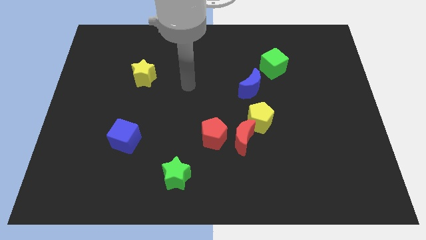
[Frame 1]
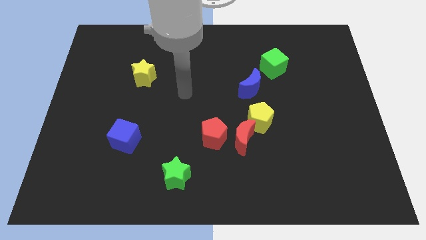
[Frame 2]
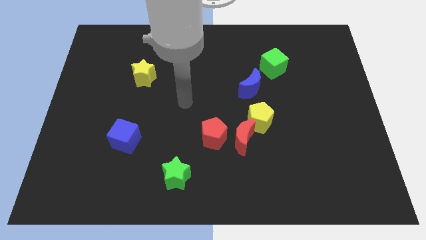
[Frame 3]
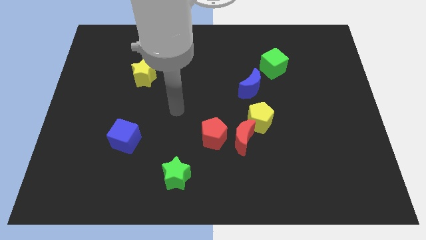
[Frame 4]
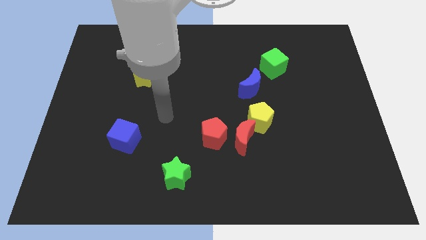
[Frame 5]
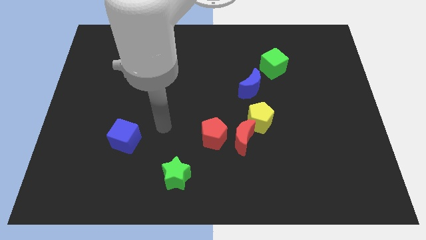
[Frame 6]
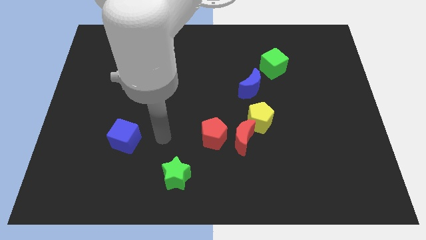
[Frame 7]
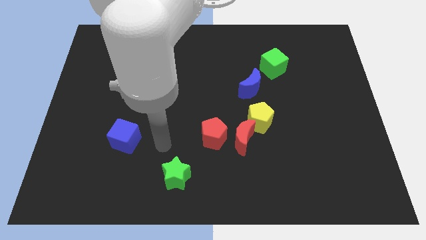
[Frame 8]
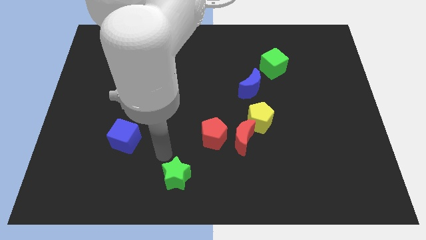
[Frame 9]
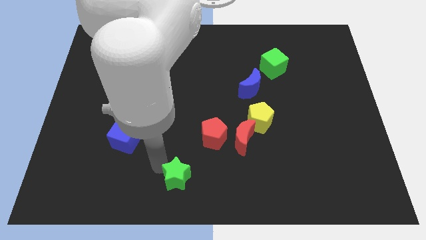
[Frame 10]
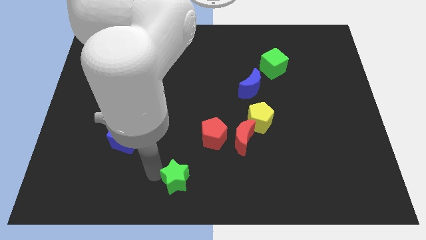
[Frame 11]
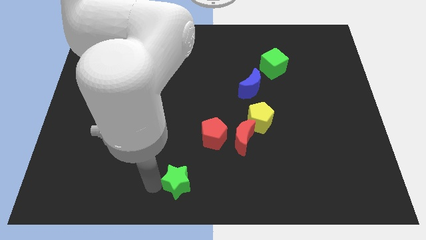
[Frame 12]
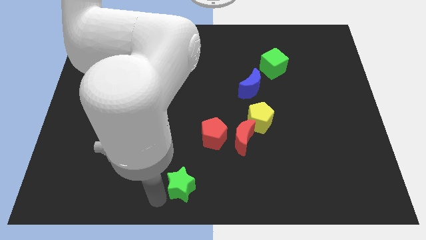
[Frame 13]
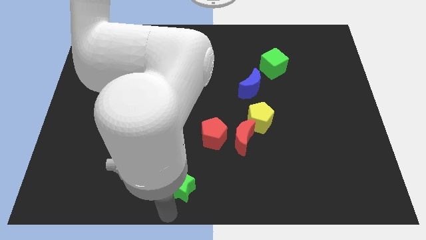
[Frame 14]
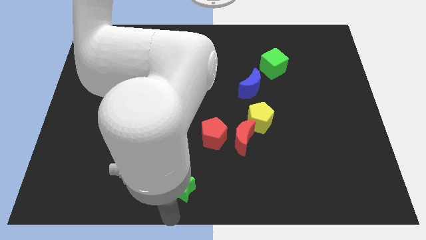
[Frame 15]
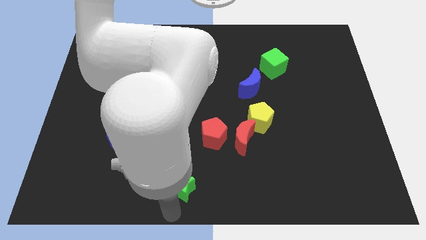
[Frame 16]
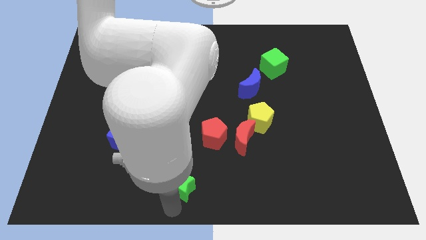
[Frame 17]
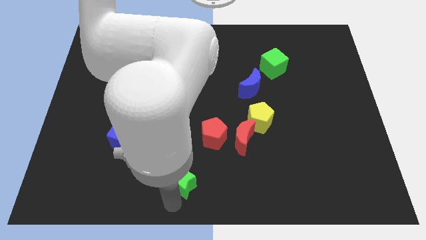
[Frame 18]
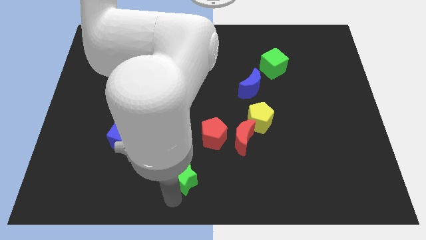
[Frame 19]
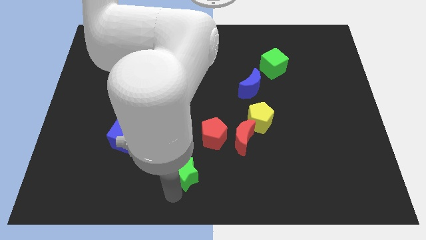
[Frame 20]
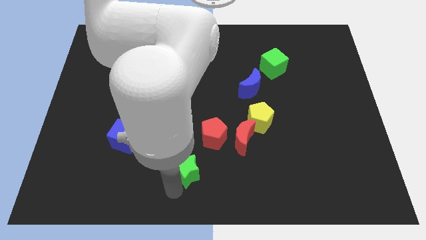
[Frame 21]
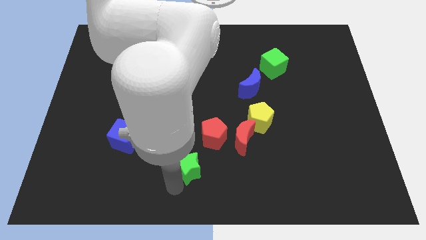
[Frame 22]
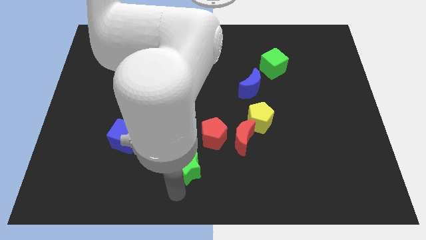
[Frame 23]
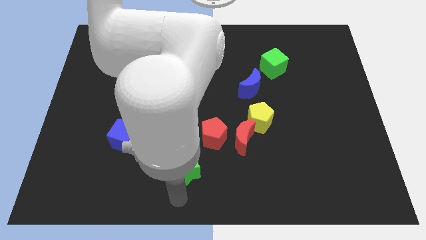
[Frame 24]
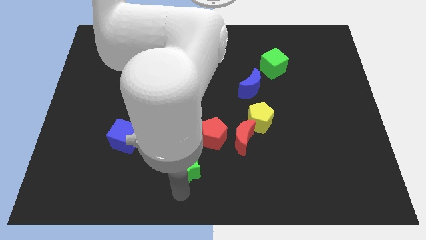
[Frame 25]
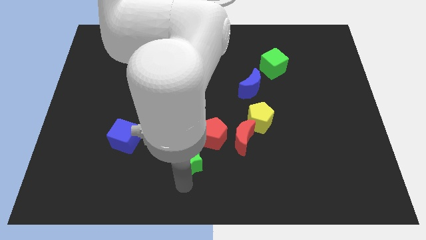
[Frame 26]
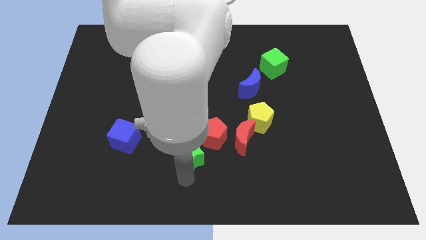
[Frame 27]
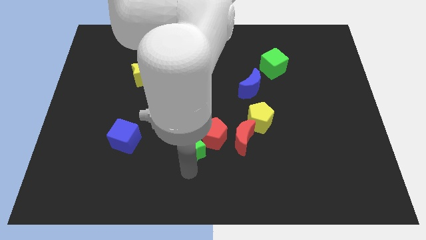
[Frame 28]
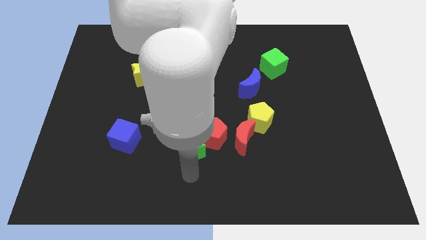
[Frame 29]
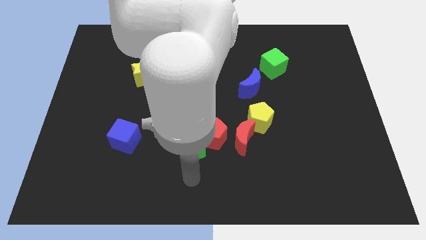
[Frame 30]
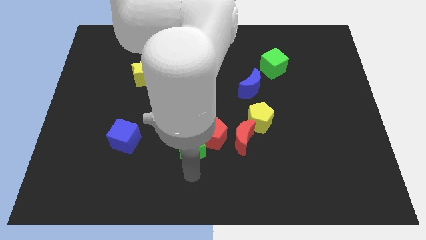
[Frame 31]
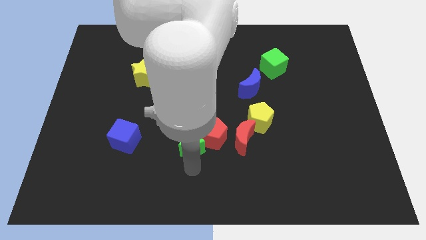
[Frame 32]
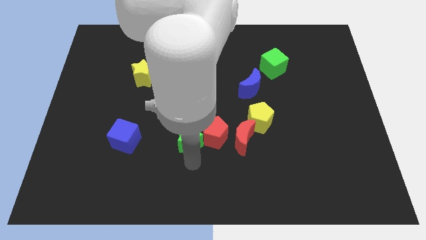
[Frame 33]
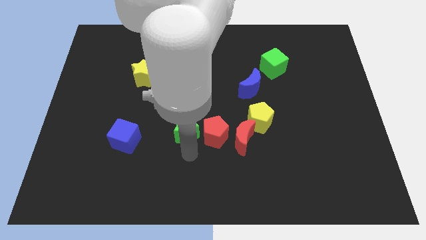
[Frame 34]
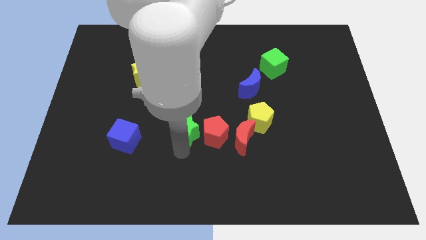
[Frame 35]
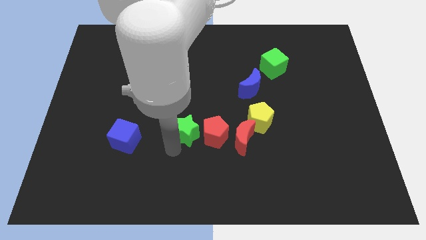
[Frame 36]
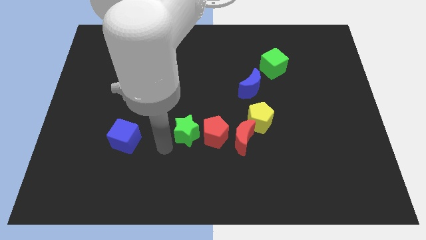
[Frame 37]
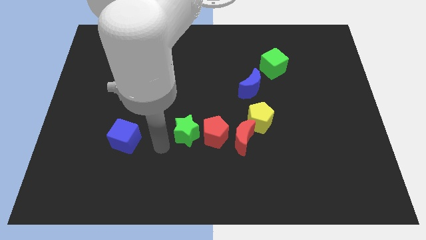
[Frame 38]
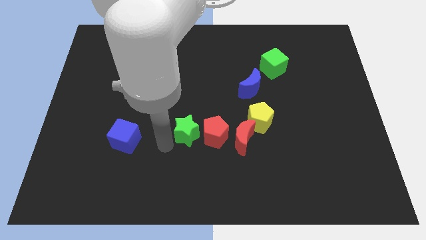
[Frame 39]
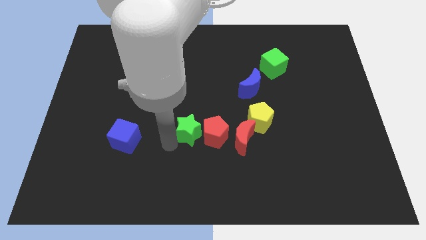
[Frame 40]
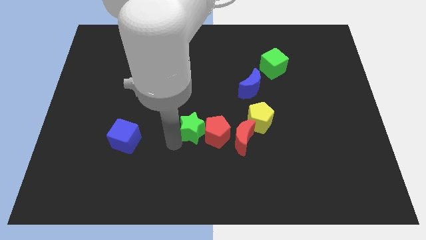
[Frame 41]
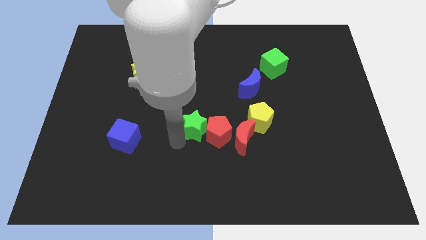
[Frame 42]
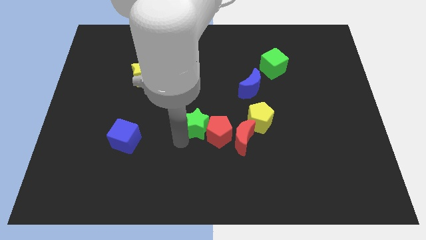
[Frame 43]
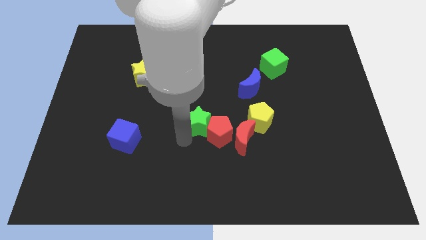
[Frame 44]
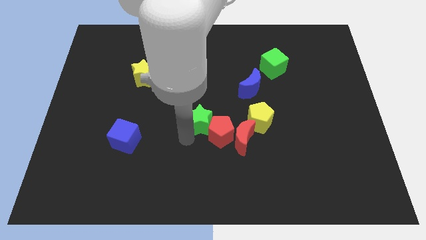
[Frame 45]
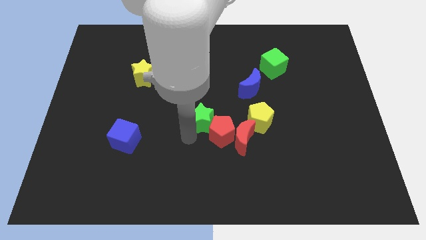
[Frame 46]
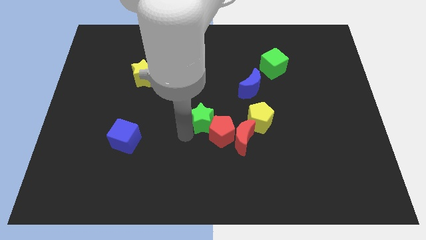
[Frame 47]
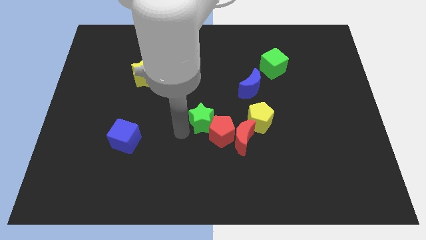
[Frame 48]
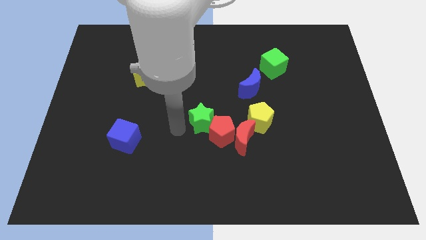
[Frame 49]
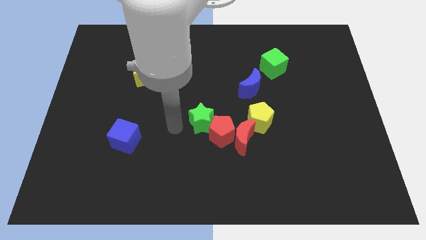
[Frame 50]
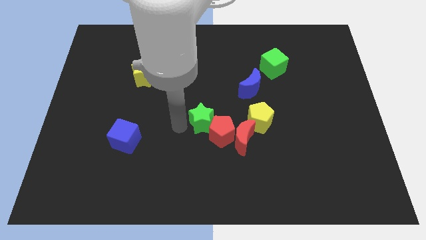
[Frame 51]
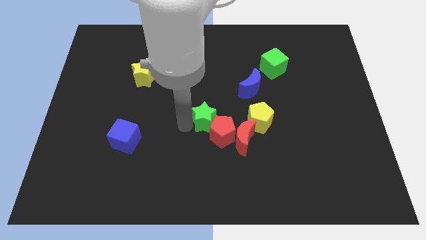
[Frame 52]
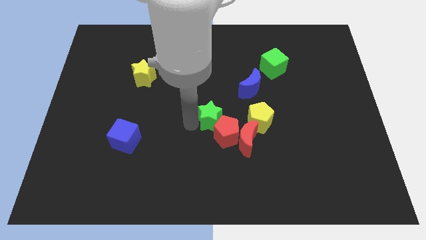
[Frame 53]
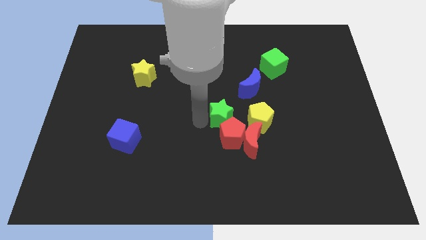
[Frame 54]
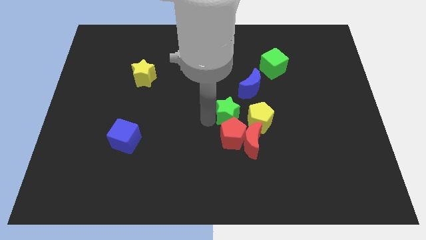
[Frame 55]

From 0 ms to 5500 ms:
push the green star to the top right side of the red pentagon

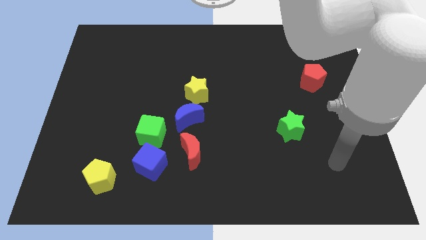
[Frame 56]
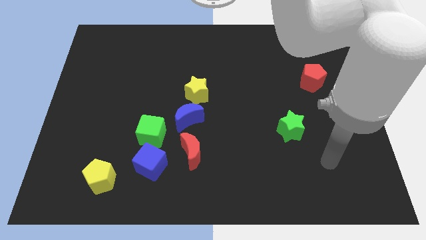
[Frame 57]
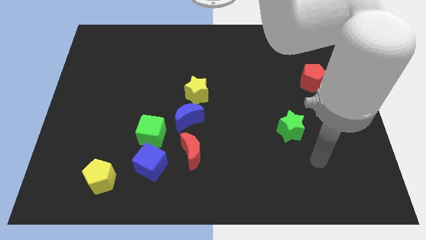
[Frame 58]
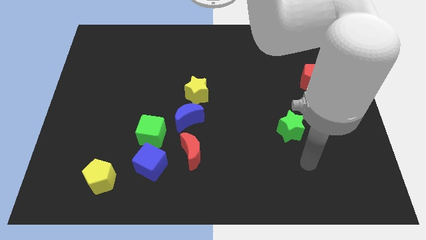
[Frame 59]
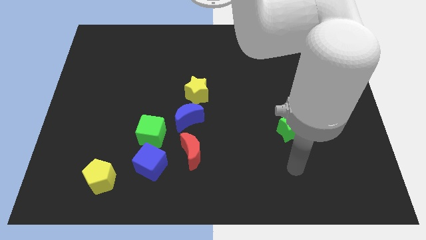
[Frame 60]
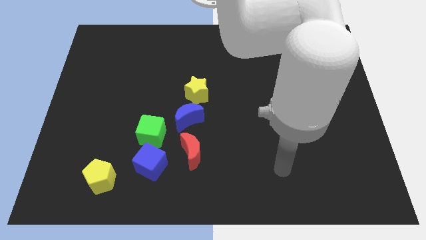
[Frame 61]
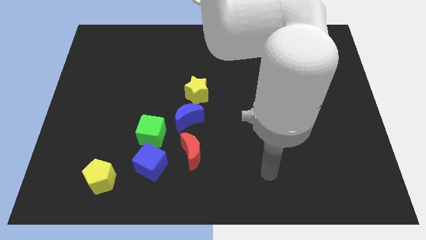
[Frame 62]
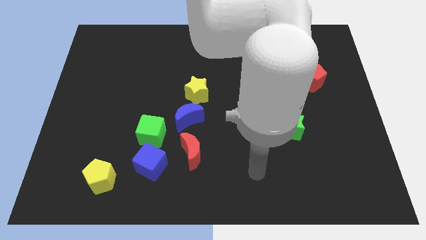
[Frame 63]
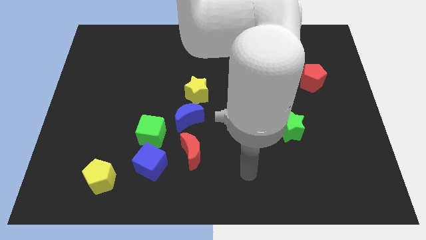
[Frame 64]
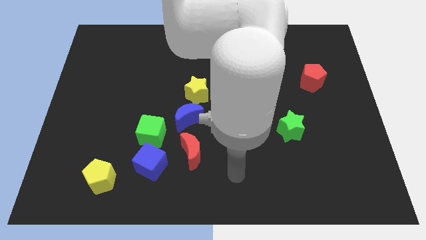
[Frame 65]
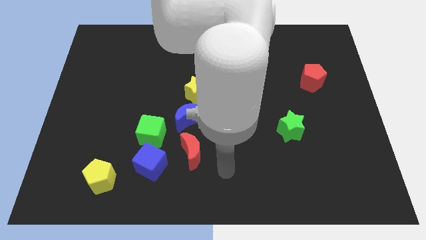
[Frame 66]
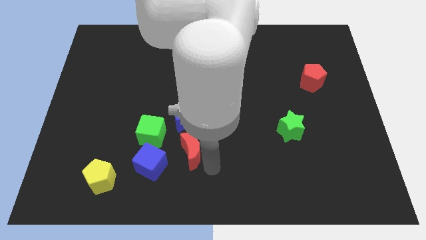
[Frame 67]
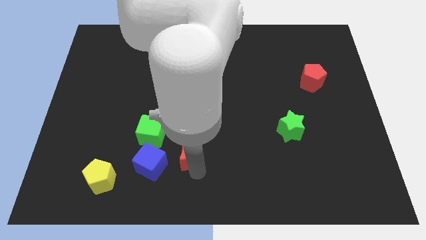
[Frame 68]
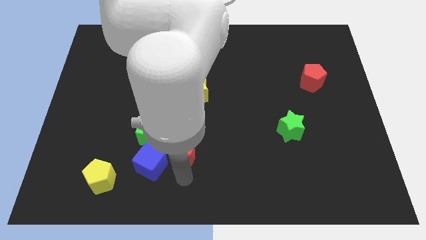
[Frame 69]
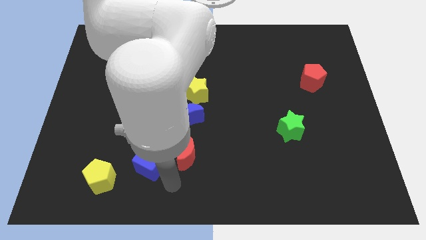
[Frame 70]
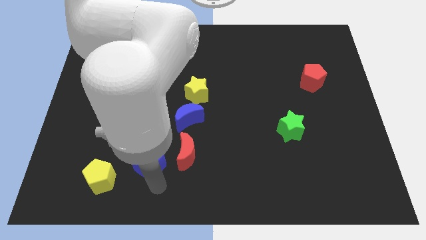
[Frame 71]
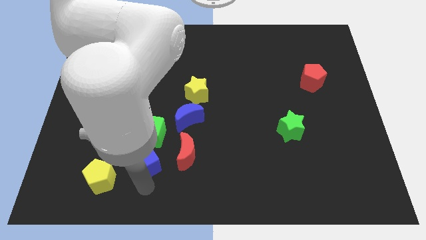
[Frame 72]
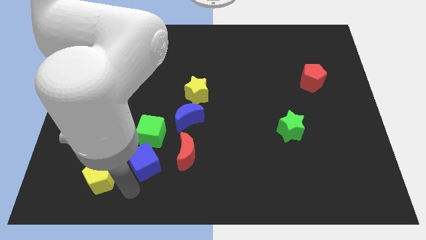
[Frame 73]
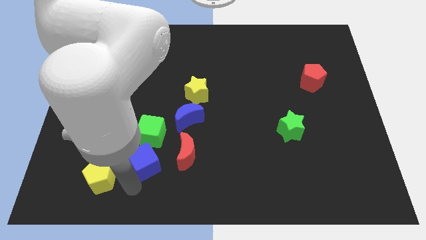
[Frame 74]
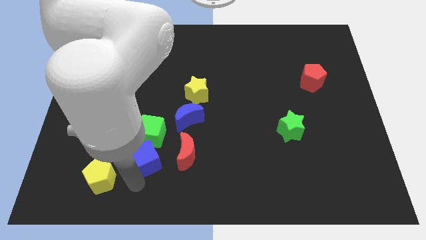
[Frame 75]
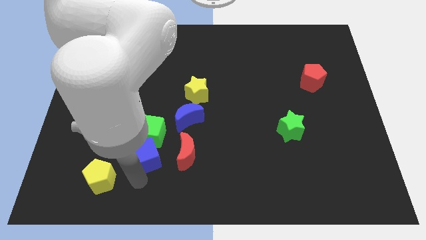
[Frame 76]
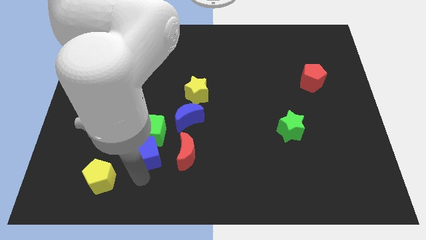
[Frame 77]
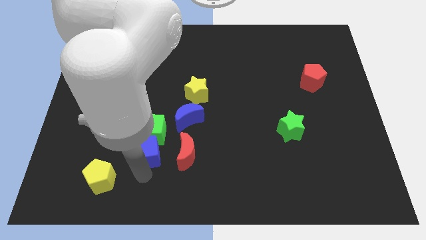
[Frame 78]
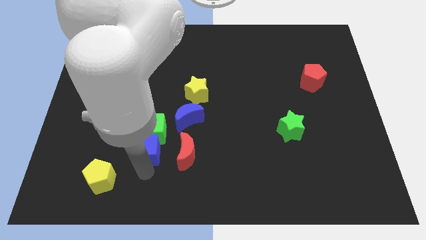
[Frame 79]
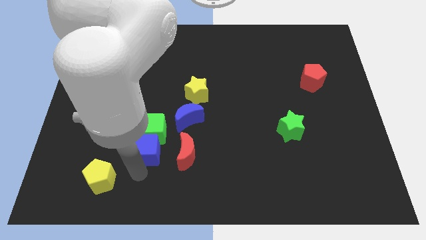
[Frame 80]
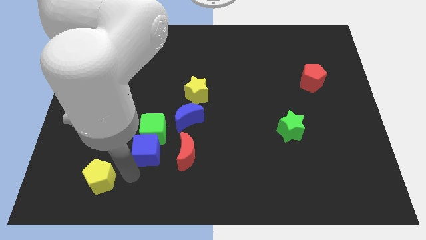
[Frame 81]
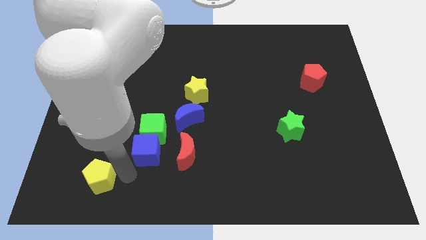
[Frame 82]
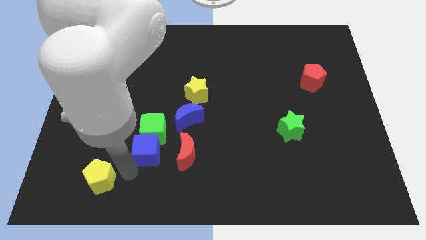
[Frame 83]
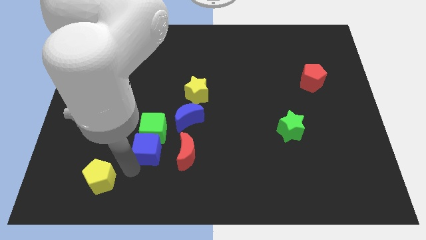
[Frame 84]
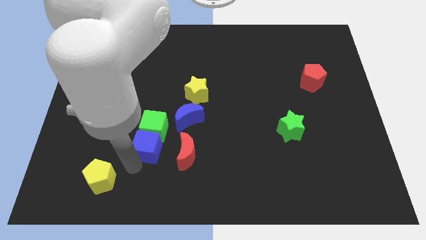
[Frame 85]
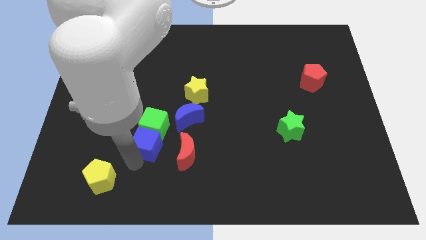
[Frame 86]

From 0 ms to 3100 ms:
push the blue cube diagonally up and to the left of the red moon
